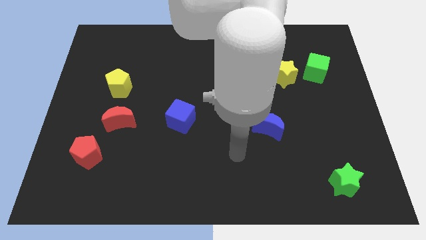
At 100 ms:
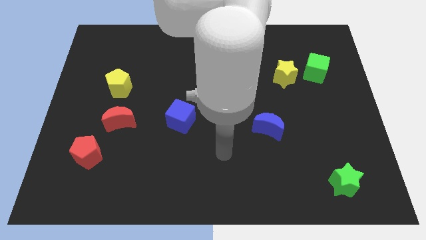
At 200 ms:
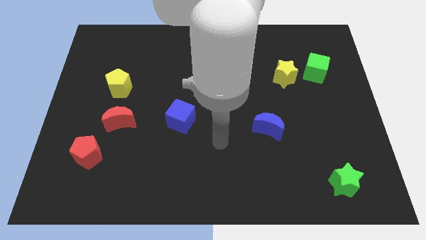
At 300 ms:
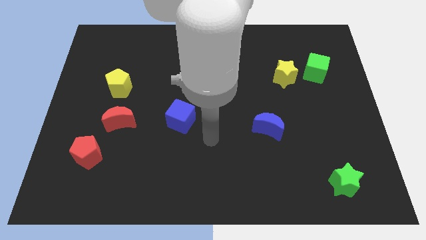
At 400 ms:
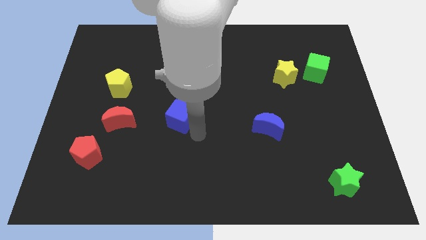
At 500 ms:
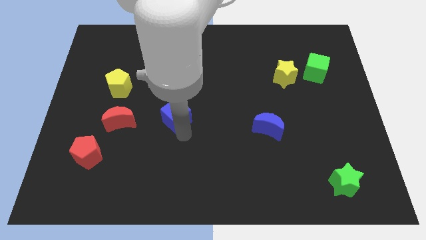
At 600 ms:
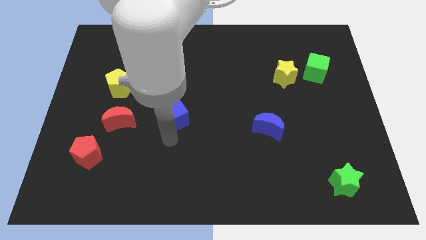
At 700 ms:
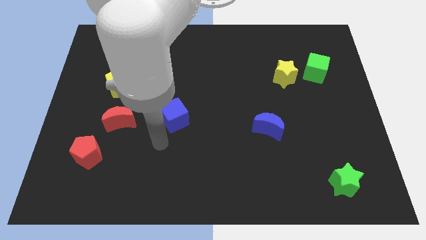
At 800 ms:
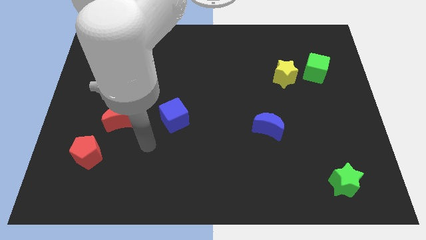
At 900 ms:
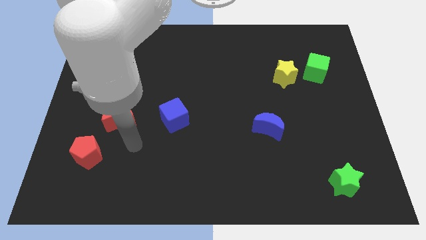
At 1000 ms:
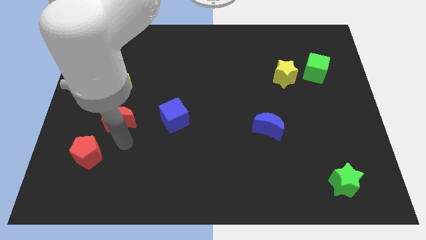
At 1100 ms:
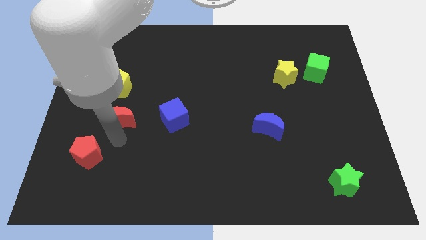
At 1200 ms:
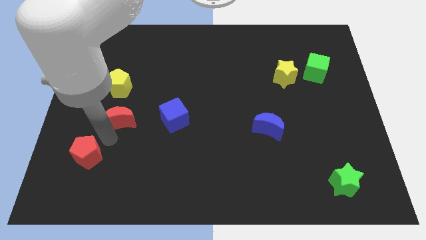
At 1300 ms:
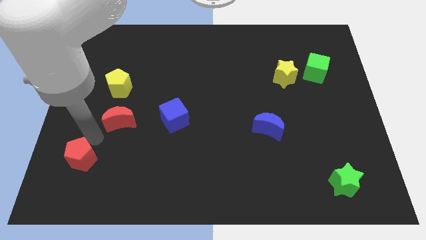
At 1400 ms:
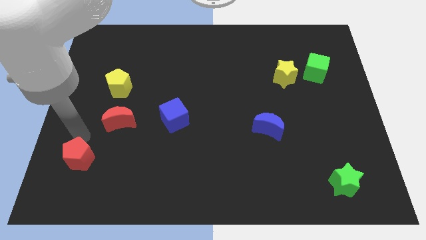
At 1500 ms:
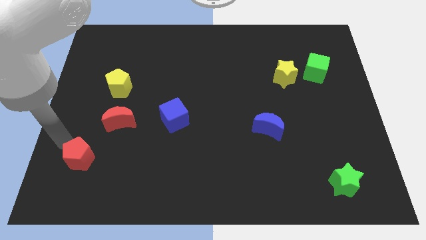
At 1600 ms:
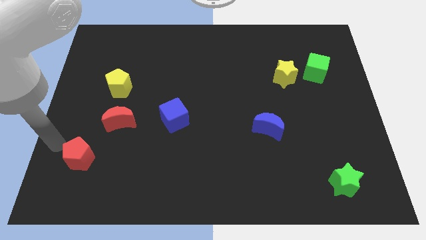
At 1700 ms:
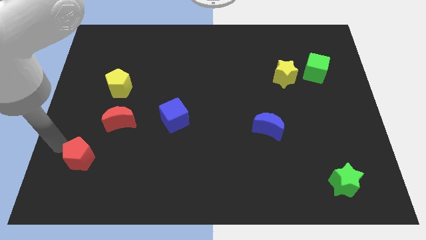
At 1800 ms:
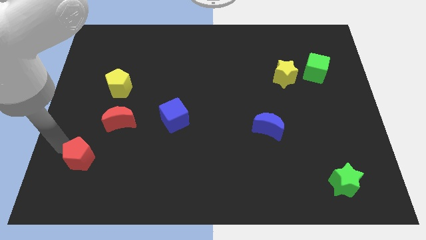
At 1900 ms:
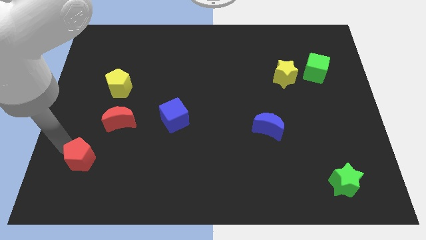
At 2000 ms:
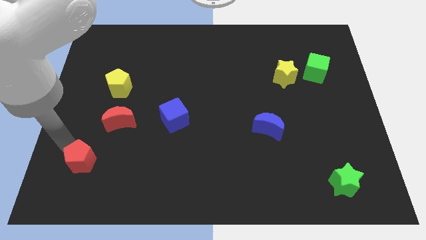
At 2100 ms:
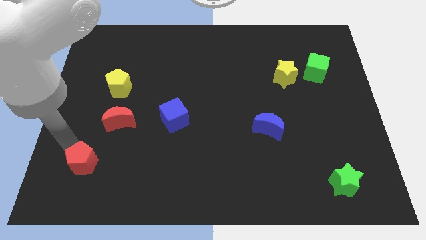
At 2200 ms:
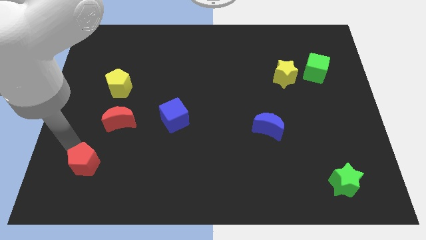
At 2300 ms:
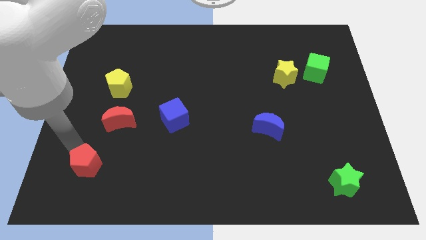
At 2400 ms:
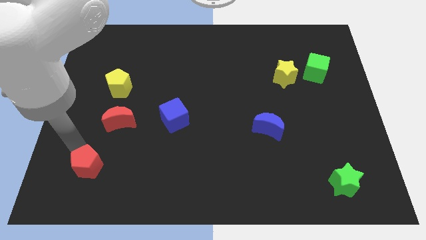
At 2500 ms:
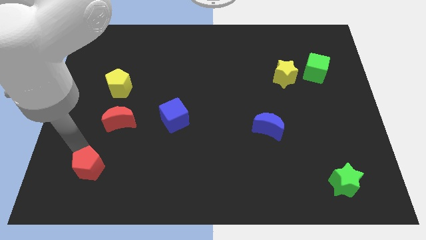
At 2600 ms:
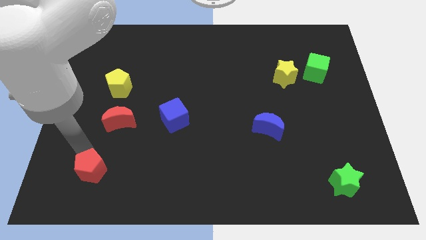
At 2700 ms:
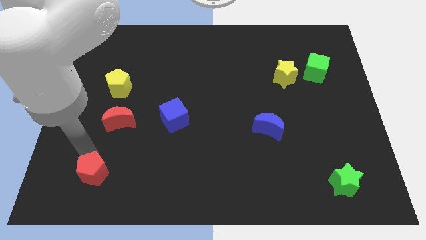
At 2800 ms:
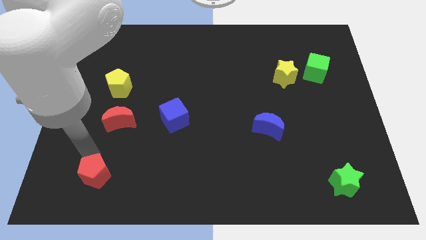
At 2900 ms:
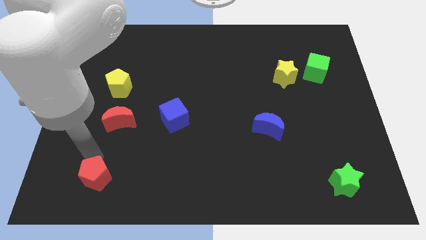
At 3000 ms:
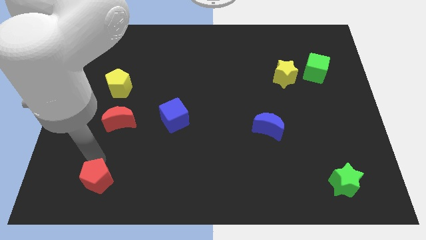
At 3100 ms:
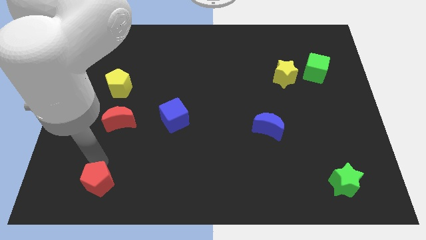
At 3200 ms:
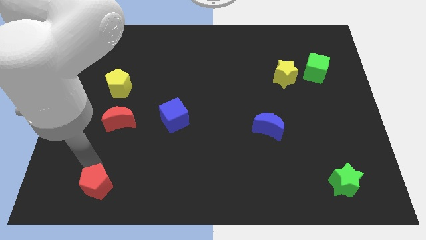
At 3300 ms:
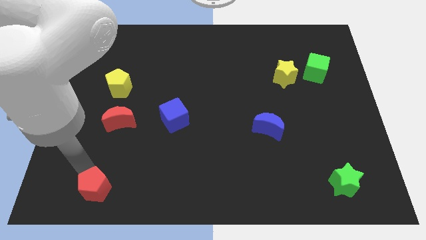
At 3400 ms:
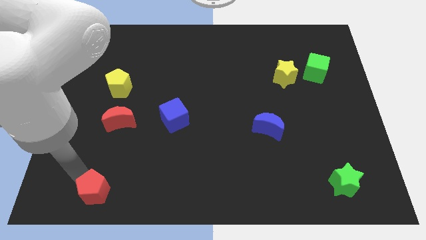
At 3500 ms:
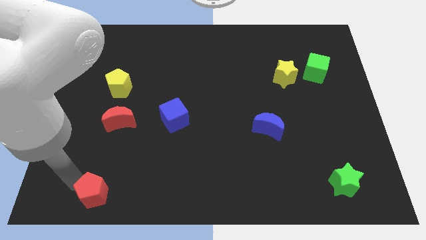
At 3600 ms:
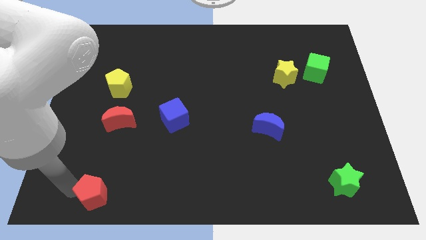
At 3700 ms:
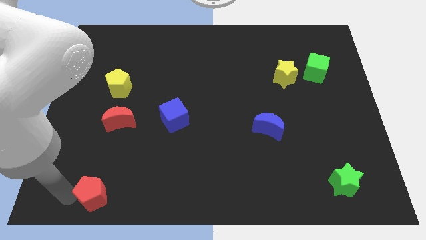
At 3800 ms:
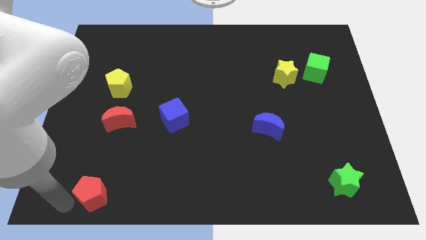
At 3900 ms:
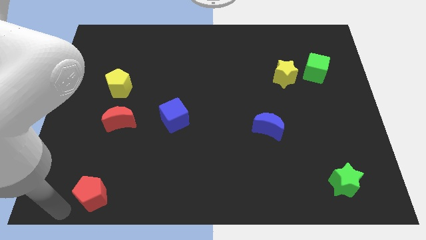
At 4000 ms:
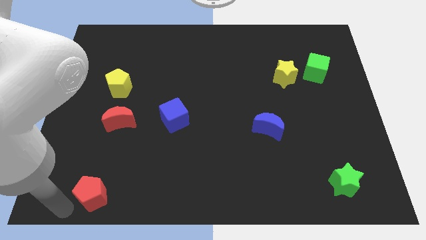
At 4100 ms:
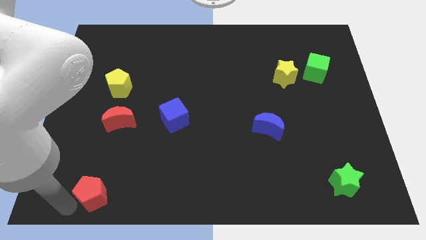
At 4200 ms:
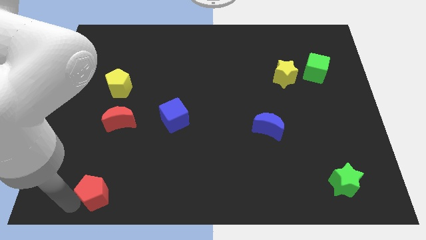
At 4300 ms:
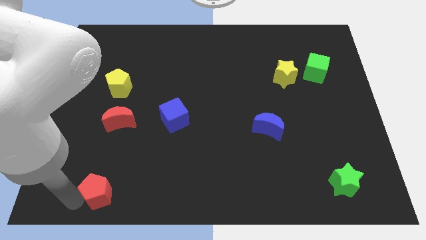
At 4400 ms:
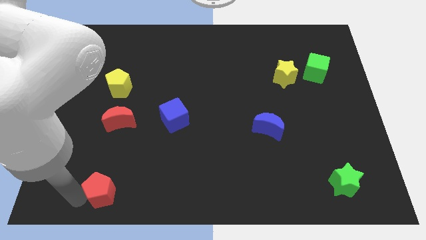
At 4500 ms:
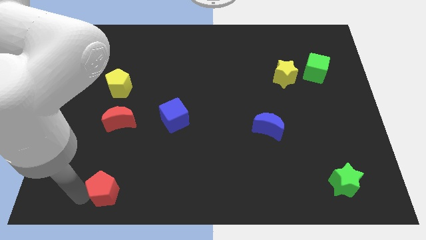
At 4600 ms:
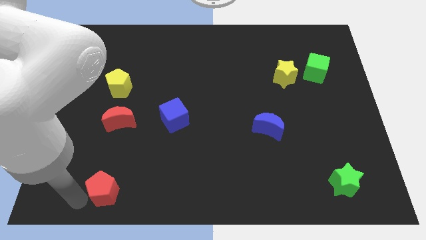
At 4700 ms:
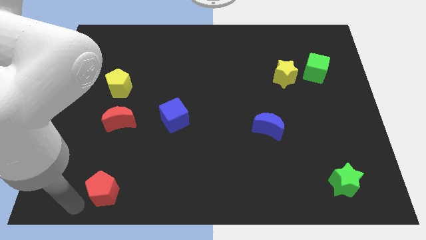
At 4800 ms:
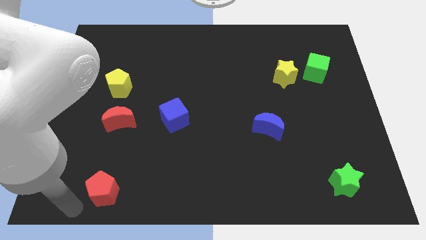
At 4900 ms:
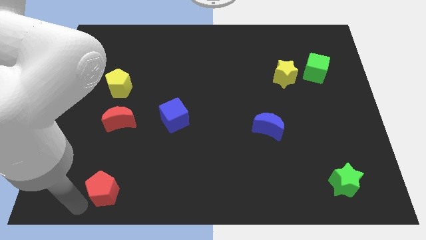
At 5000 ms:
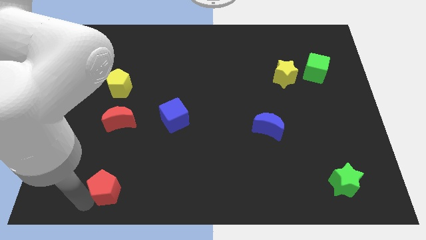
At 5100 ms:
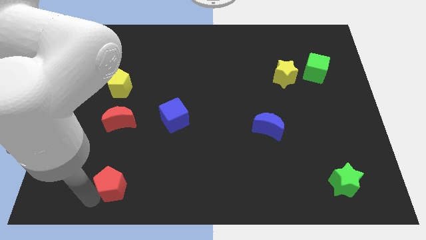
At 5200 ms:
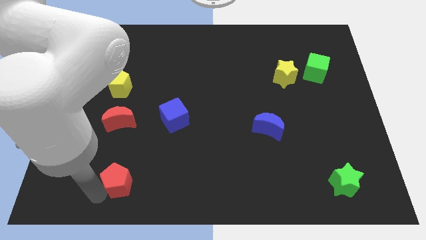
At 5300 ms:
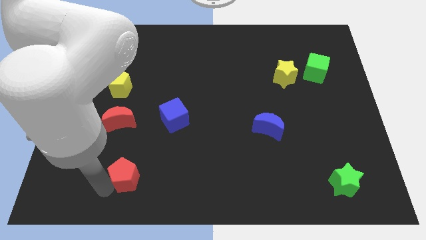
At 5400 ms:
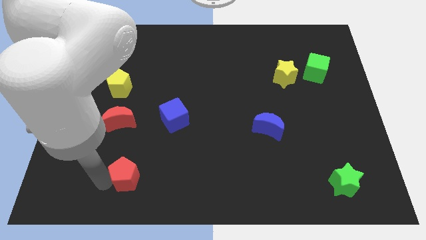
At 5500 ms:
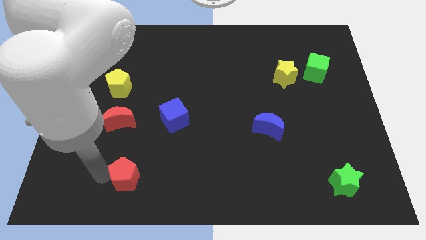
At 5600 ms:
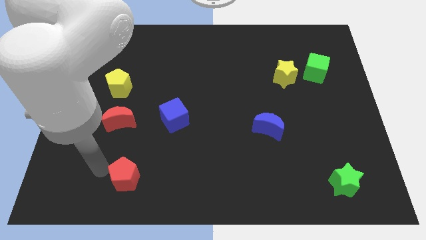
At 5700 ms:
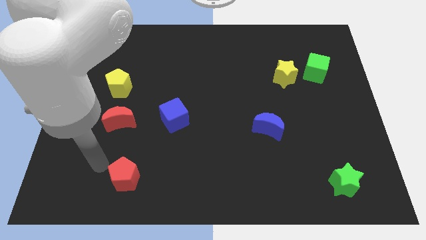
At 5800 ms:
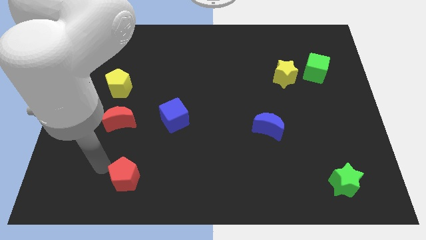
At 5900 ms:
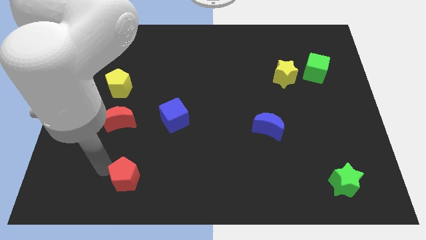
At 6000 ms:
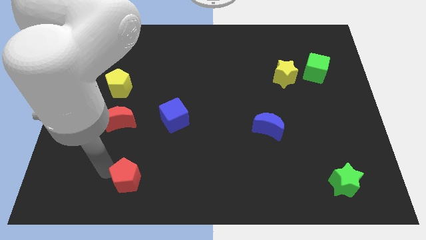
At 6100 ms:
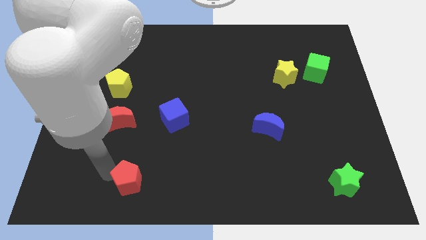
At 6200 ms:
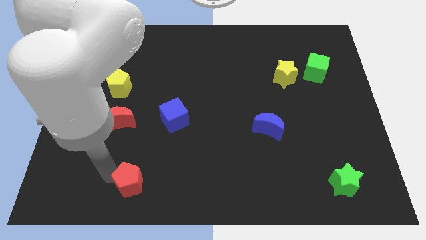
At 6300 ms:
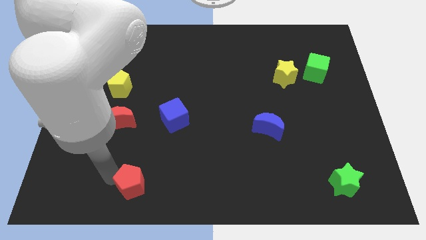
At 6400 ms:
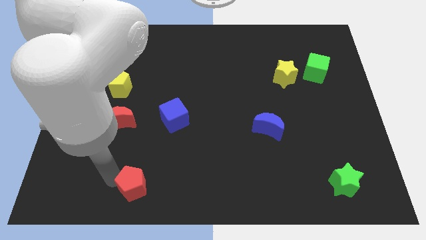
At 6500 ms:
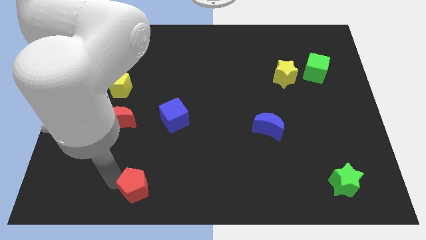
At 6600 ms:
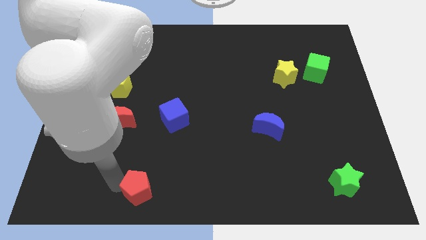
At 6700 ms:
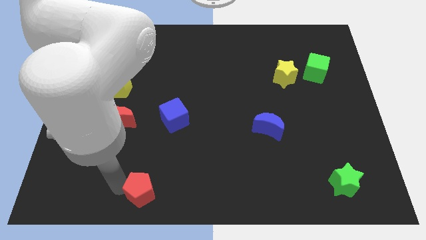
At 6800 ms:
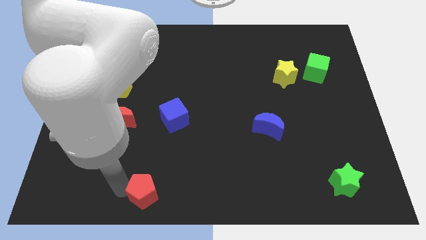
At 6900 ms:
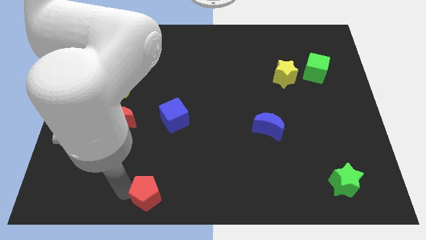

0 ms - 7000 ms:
put the red pentagon to the bottom side
